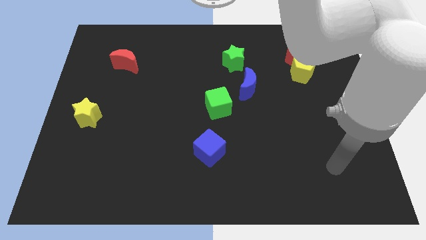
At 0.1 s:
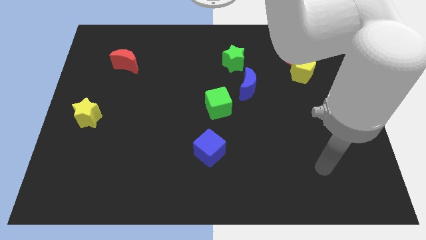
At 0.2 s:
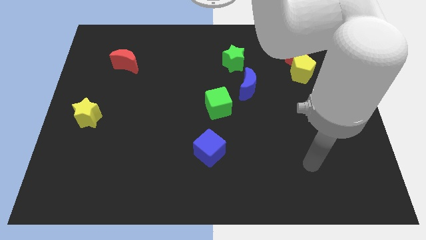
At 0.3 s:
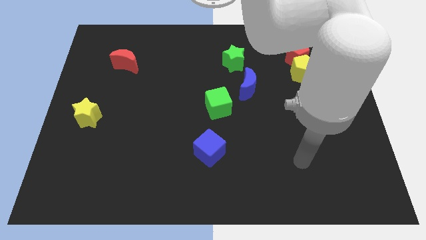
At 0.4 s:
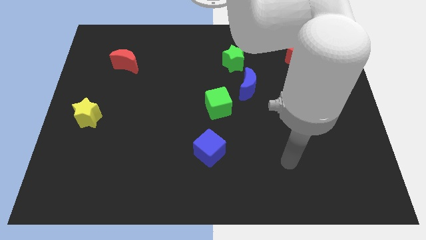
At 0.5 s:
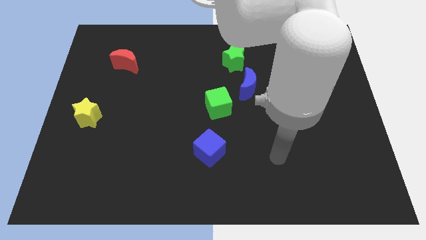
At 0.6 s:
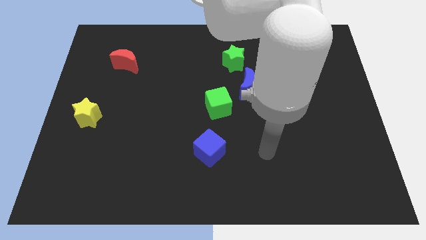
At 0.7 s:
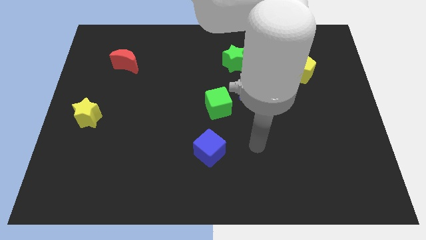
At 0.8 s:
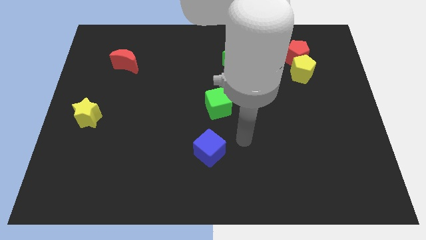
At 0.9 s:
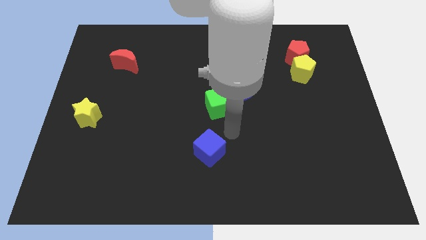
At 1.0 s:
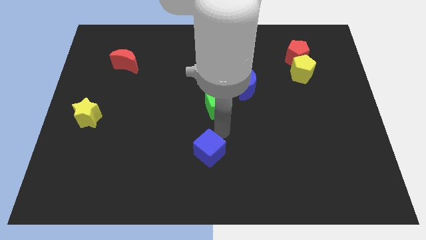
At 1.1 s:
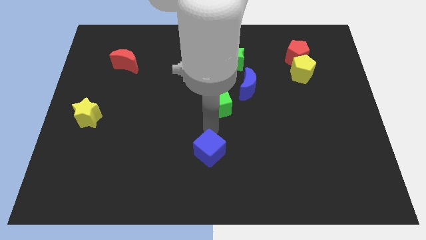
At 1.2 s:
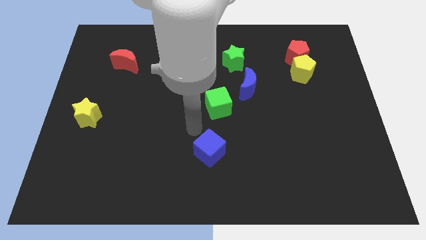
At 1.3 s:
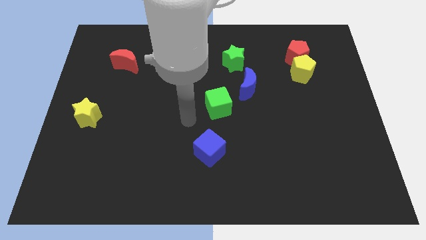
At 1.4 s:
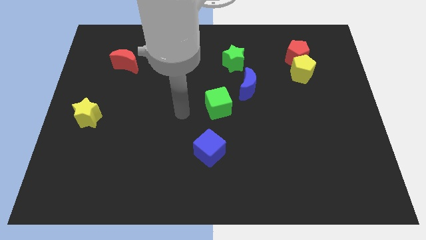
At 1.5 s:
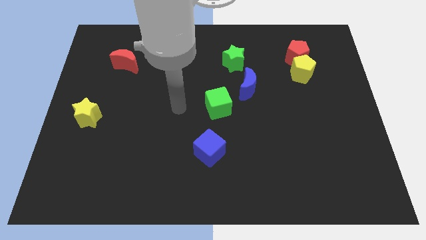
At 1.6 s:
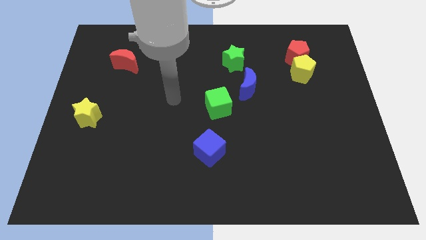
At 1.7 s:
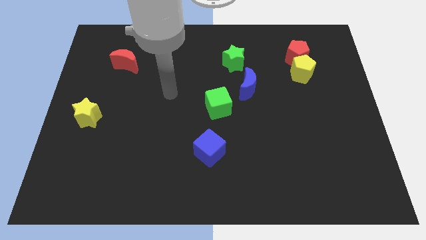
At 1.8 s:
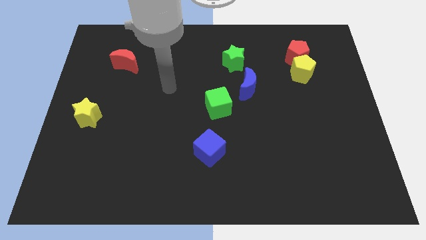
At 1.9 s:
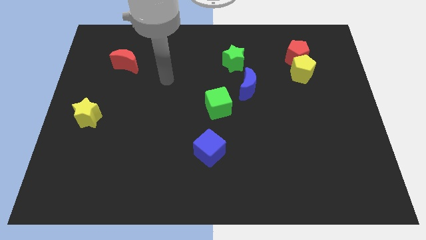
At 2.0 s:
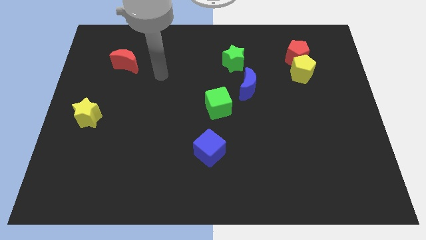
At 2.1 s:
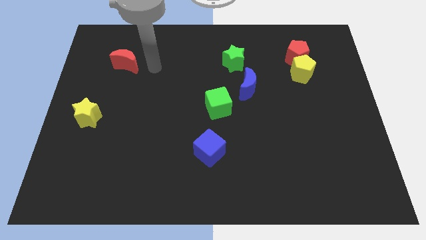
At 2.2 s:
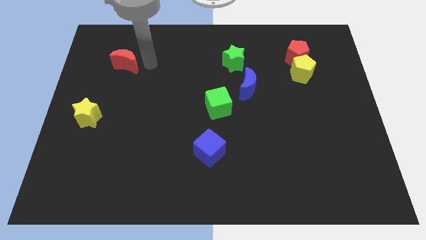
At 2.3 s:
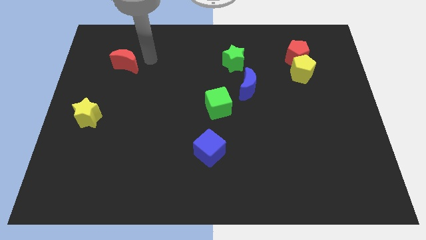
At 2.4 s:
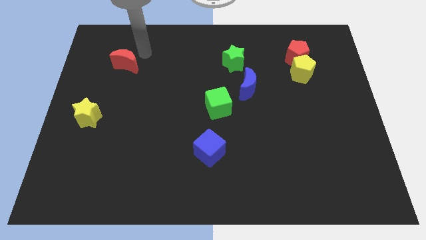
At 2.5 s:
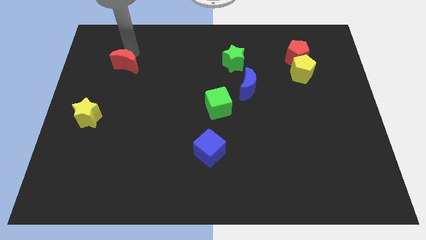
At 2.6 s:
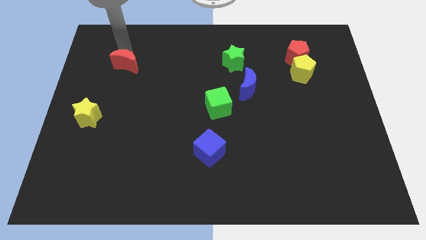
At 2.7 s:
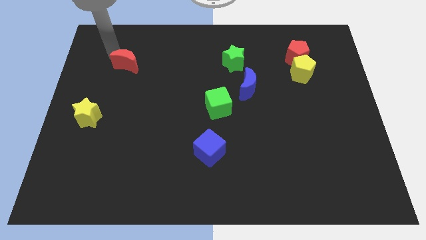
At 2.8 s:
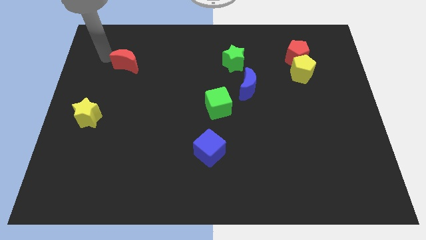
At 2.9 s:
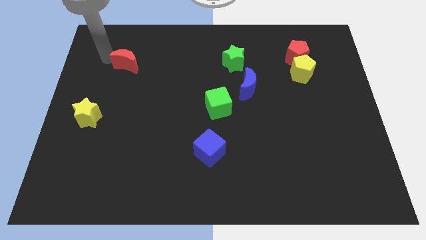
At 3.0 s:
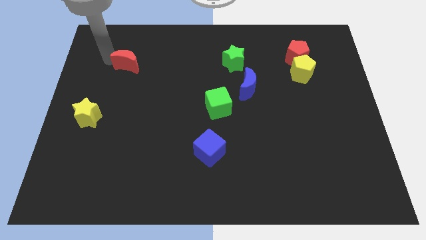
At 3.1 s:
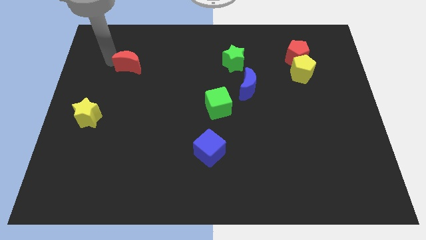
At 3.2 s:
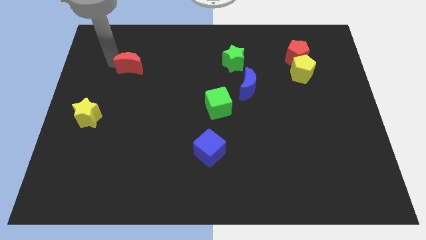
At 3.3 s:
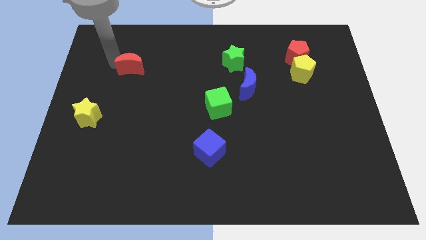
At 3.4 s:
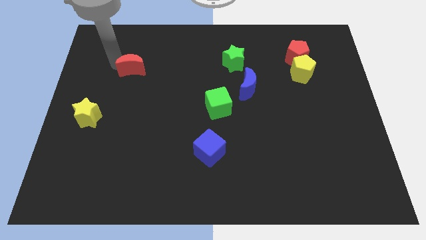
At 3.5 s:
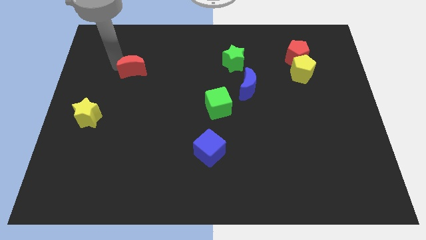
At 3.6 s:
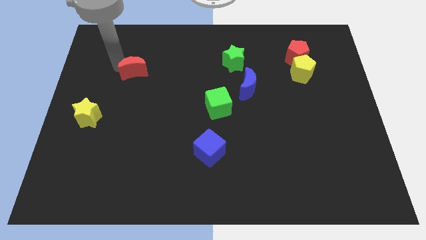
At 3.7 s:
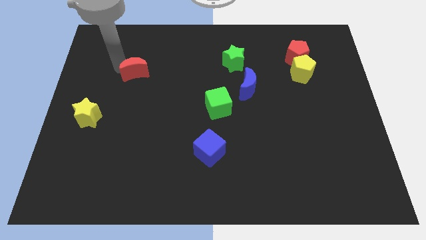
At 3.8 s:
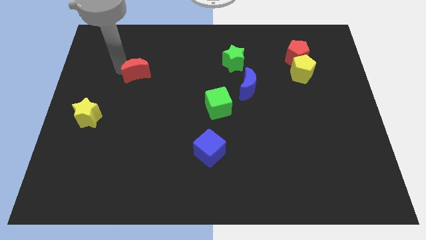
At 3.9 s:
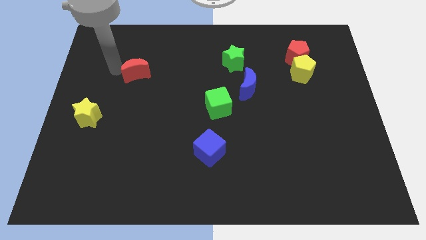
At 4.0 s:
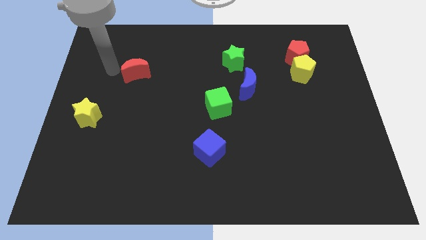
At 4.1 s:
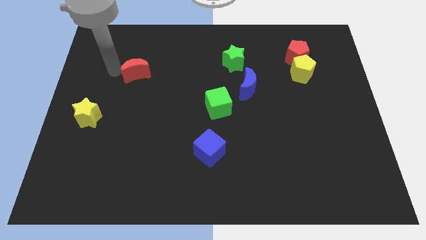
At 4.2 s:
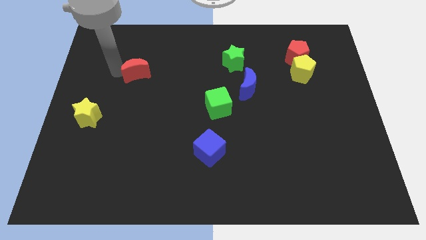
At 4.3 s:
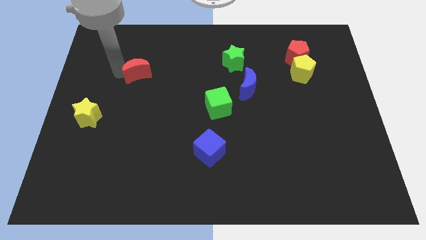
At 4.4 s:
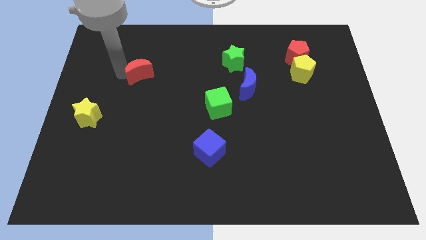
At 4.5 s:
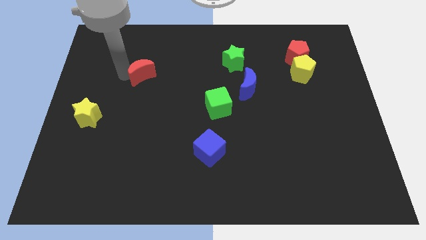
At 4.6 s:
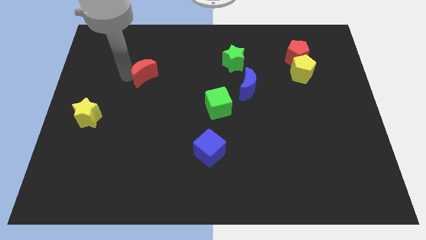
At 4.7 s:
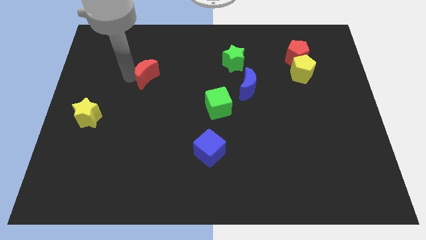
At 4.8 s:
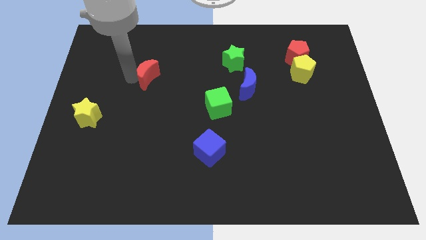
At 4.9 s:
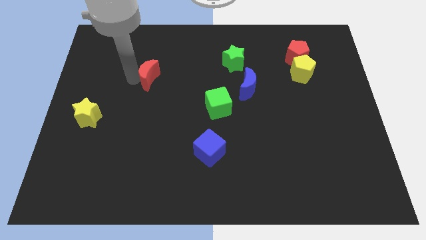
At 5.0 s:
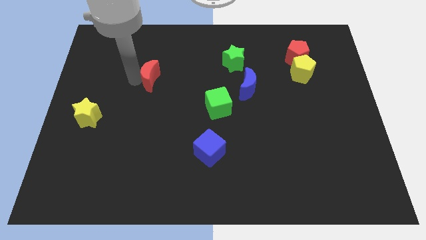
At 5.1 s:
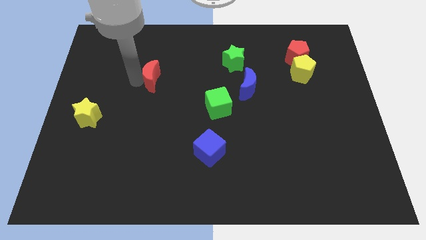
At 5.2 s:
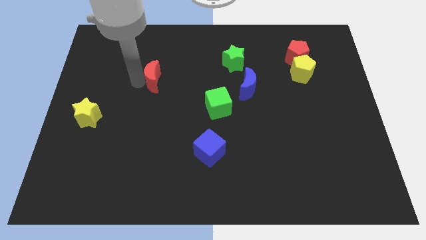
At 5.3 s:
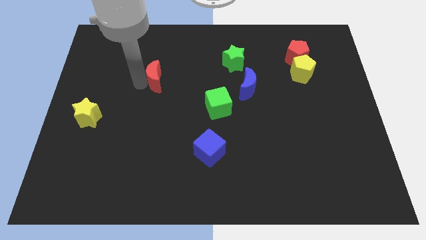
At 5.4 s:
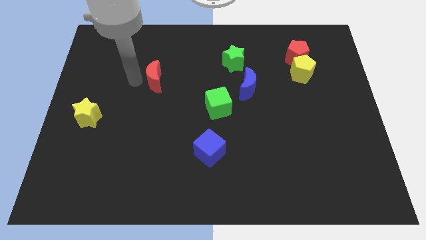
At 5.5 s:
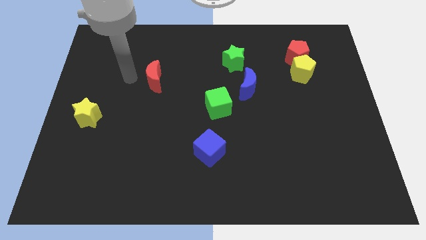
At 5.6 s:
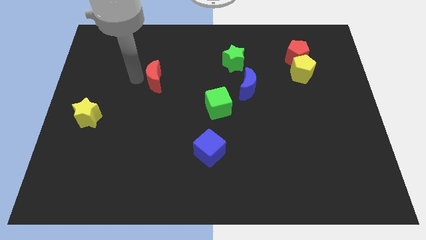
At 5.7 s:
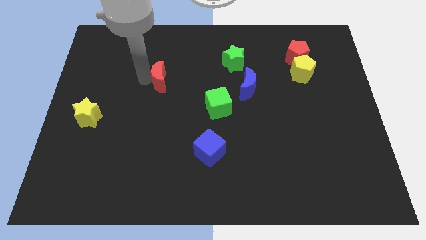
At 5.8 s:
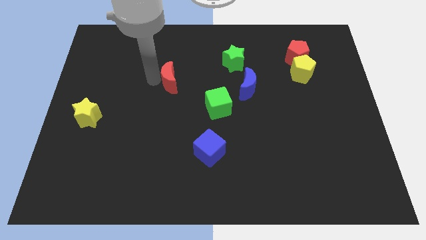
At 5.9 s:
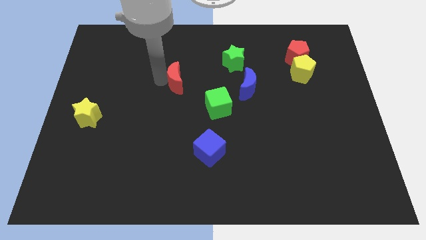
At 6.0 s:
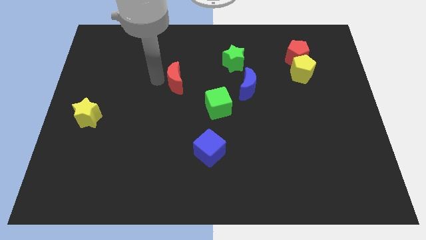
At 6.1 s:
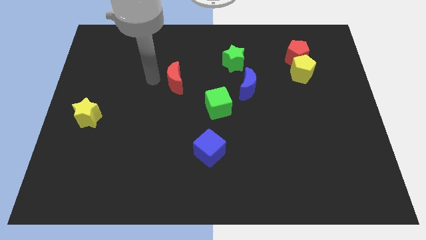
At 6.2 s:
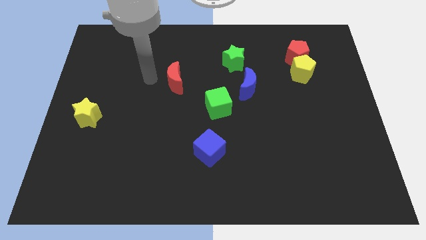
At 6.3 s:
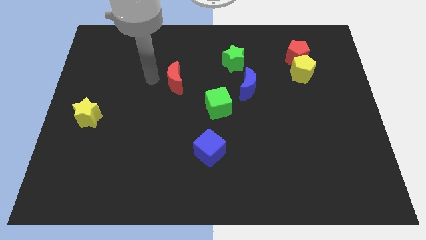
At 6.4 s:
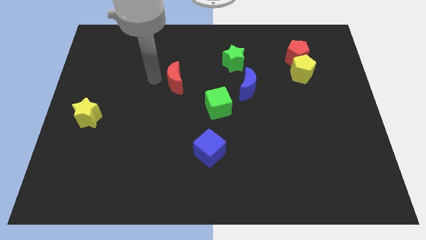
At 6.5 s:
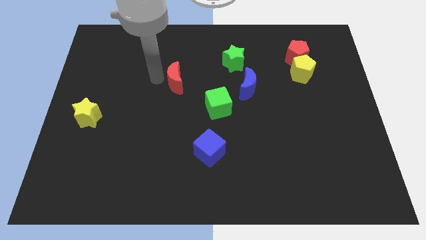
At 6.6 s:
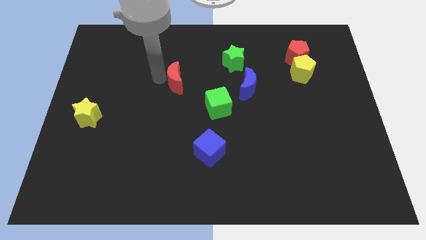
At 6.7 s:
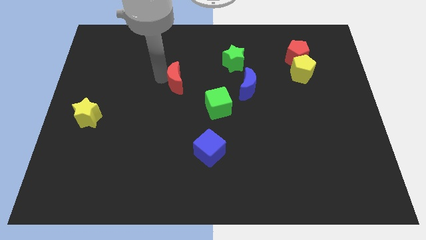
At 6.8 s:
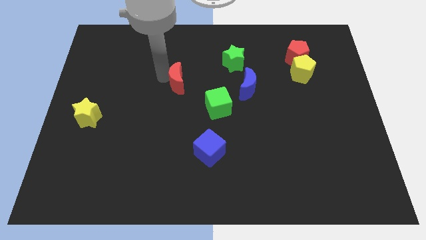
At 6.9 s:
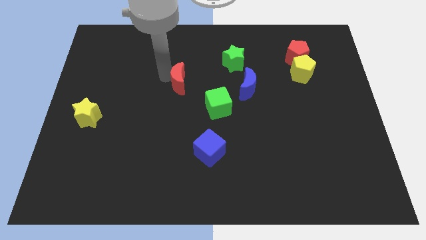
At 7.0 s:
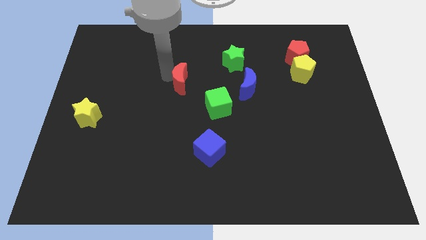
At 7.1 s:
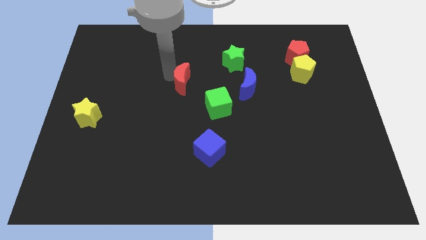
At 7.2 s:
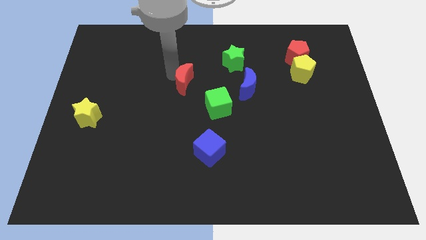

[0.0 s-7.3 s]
push the red moon left of the blue moon
